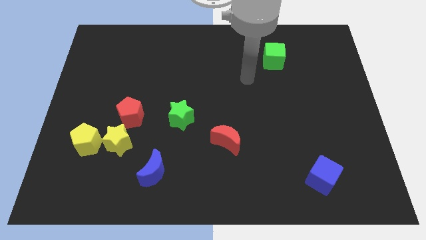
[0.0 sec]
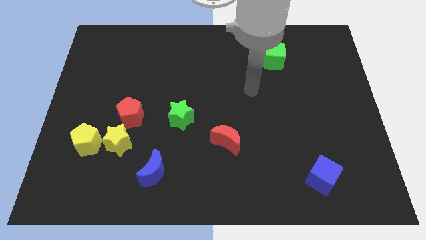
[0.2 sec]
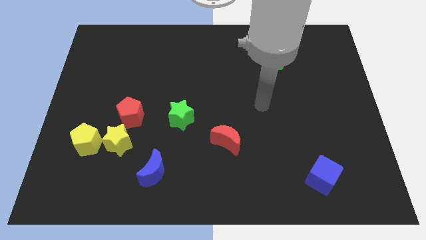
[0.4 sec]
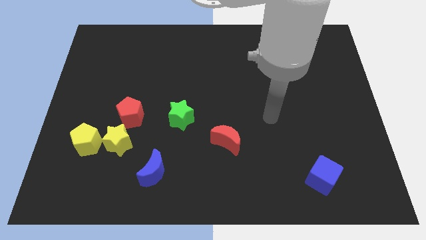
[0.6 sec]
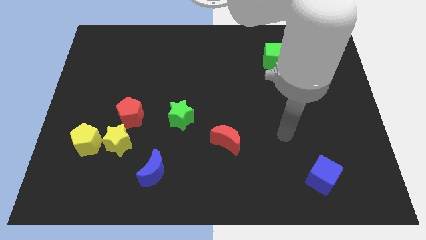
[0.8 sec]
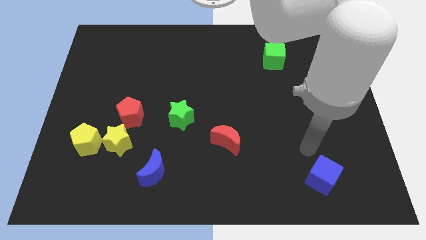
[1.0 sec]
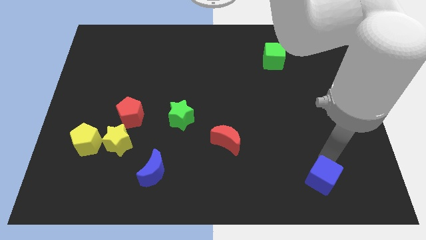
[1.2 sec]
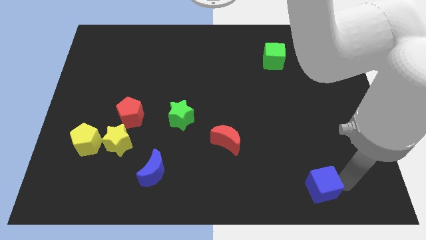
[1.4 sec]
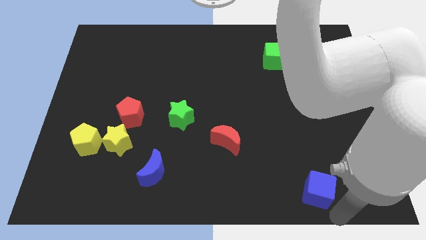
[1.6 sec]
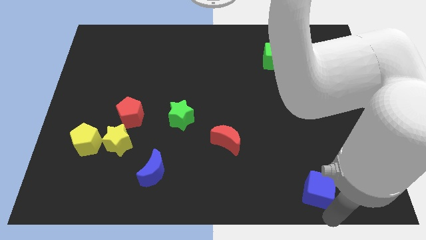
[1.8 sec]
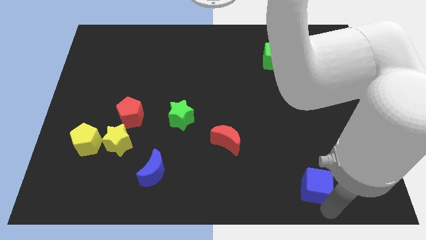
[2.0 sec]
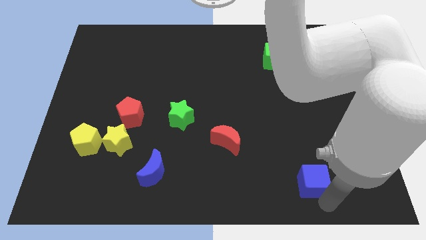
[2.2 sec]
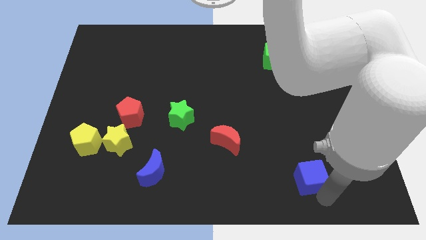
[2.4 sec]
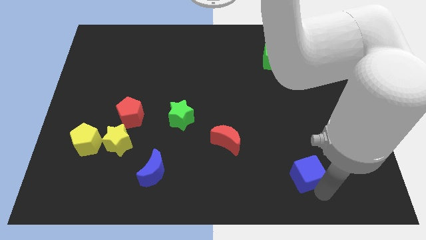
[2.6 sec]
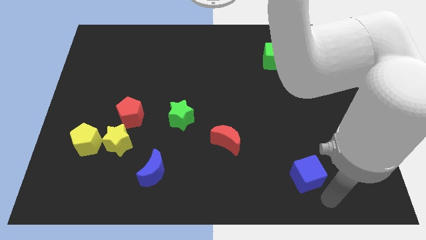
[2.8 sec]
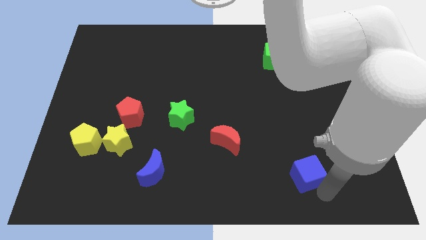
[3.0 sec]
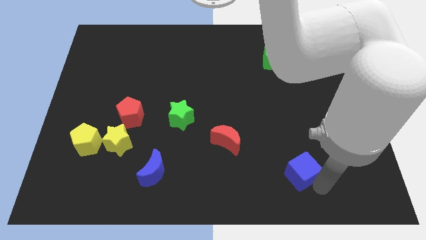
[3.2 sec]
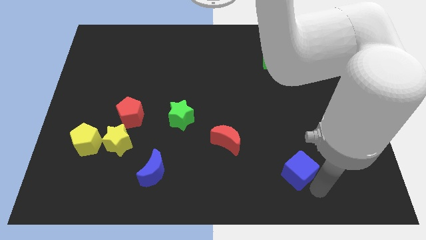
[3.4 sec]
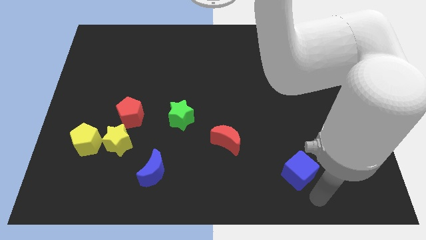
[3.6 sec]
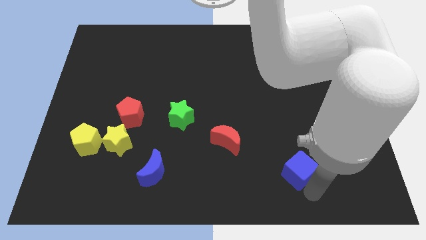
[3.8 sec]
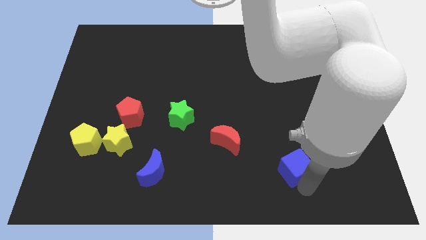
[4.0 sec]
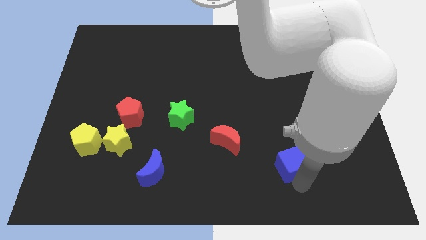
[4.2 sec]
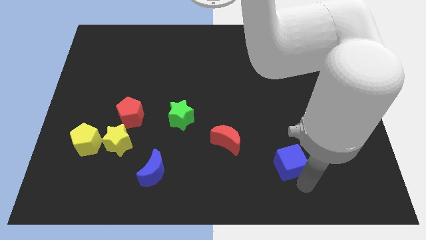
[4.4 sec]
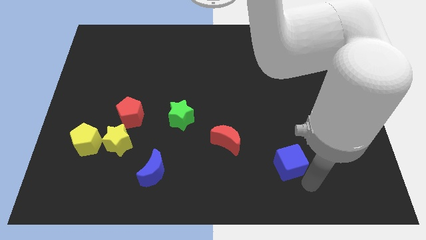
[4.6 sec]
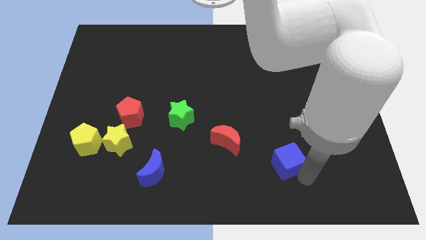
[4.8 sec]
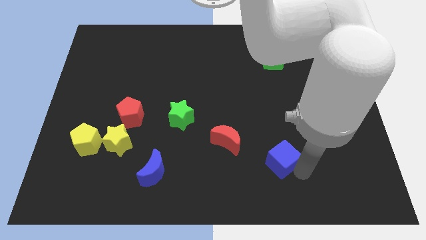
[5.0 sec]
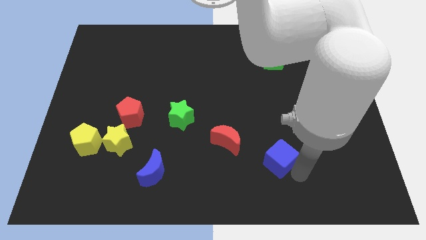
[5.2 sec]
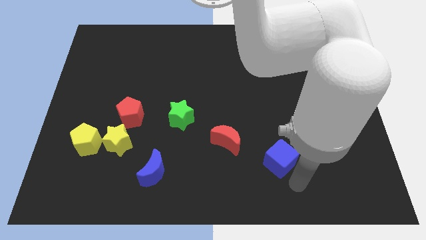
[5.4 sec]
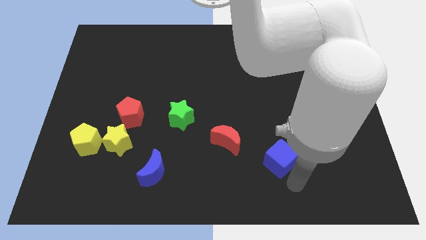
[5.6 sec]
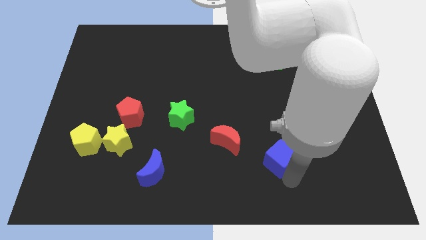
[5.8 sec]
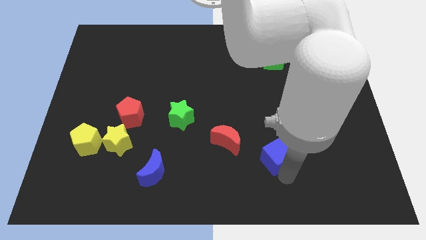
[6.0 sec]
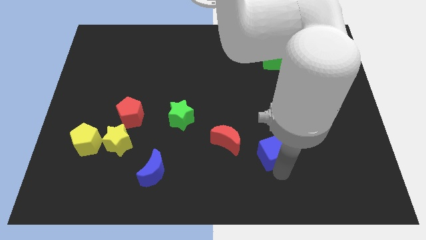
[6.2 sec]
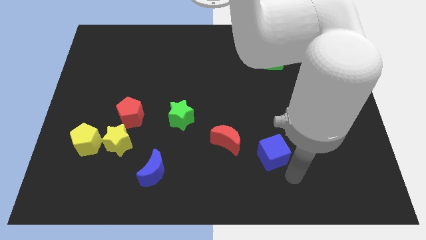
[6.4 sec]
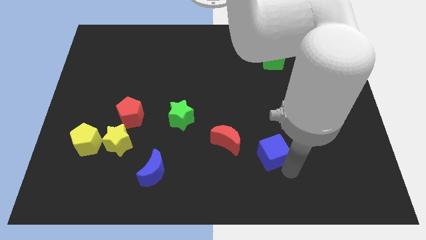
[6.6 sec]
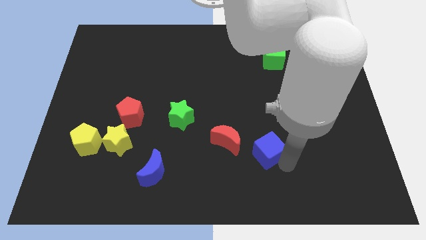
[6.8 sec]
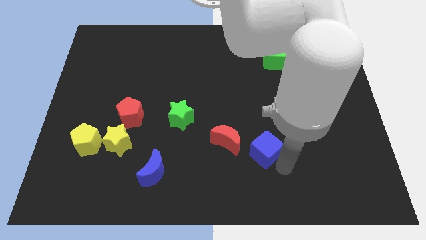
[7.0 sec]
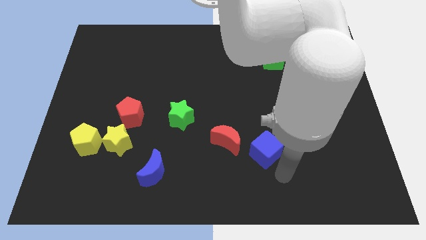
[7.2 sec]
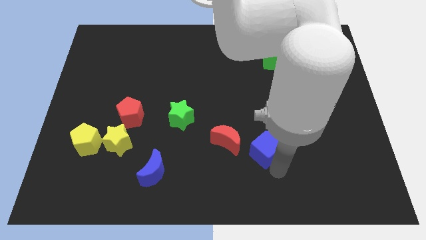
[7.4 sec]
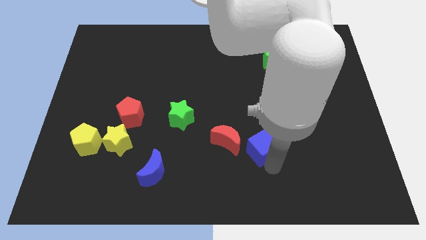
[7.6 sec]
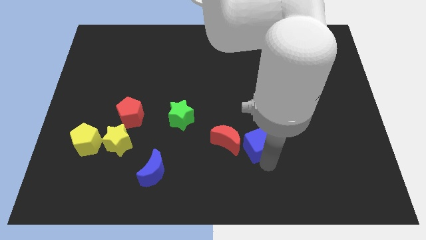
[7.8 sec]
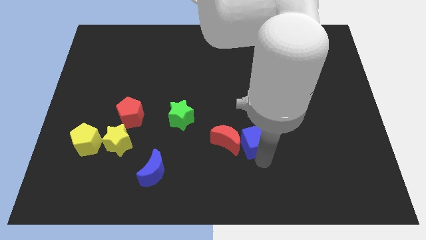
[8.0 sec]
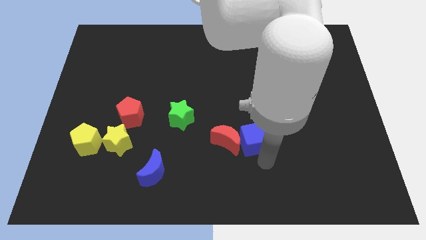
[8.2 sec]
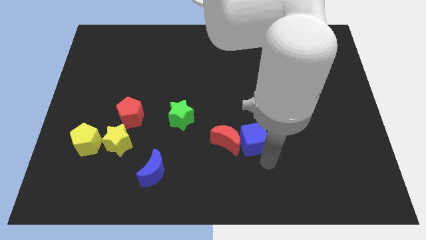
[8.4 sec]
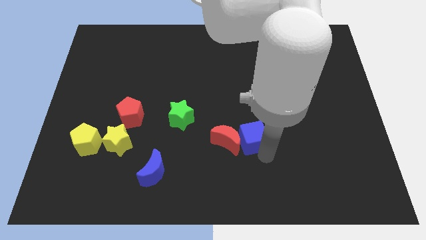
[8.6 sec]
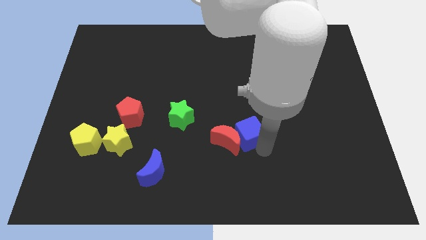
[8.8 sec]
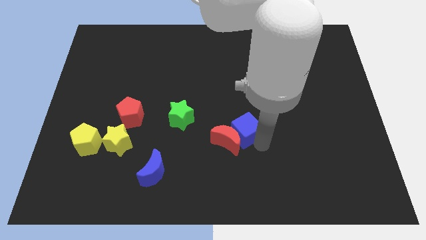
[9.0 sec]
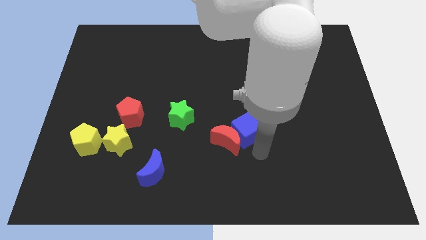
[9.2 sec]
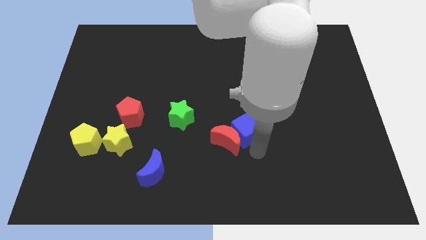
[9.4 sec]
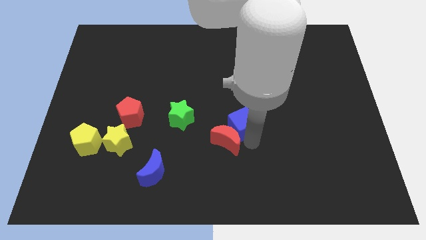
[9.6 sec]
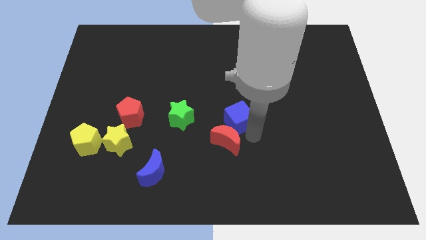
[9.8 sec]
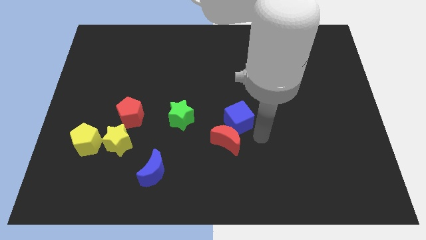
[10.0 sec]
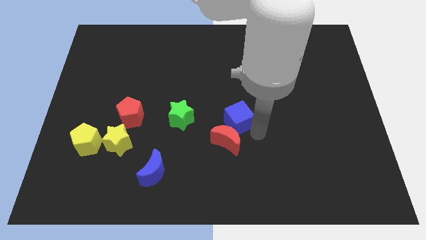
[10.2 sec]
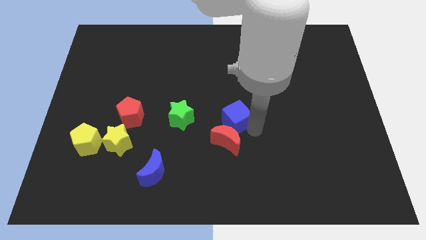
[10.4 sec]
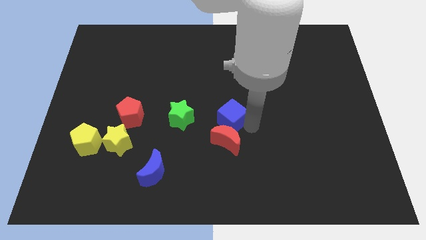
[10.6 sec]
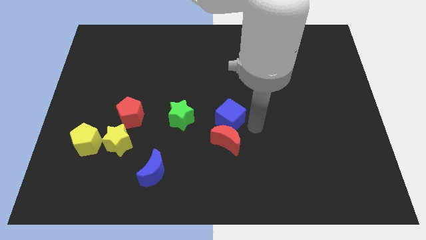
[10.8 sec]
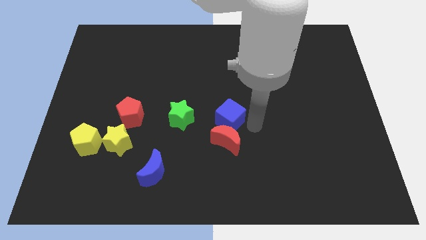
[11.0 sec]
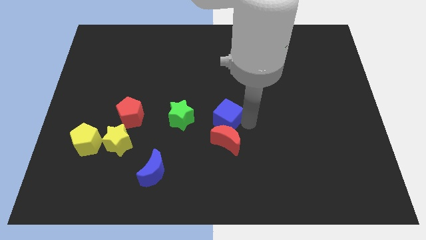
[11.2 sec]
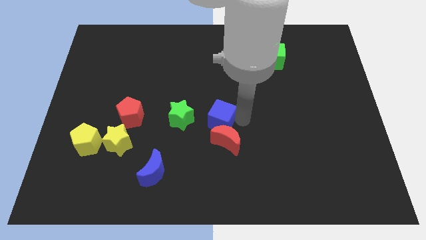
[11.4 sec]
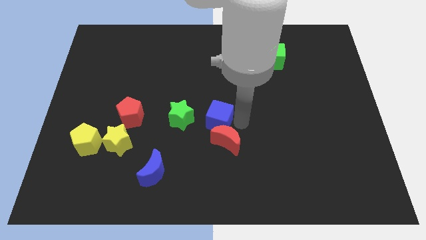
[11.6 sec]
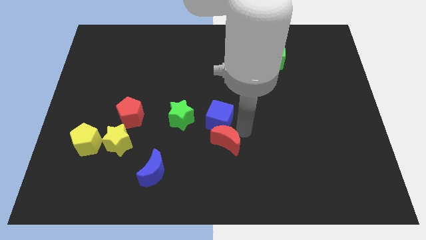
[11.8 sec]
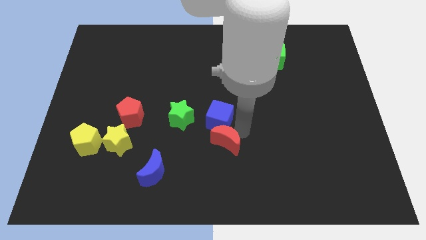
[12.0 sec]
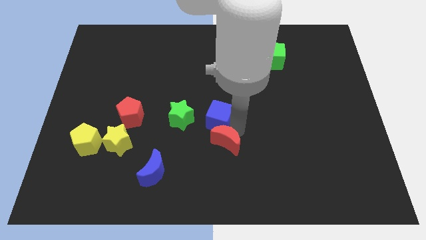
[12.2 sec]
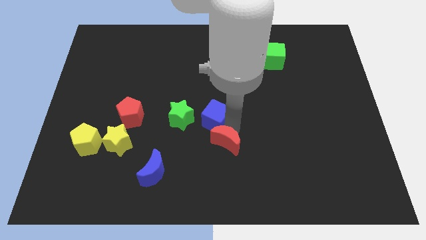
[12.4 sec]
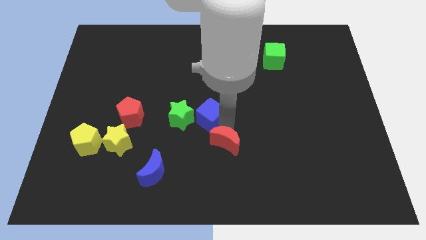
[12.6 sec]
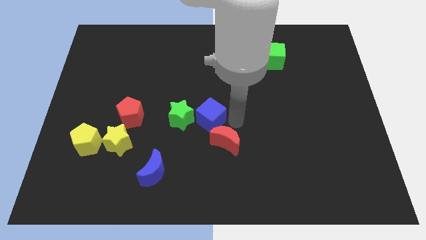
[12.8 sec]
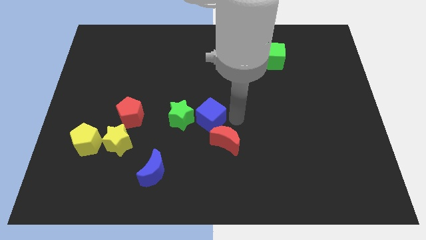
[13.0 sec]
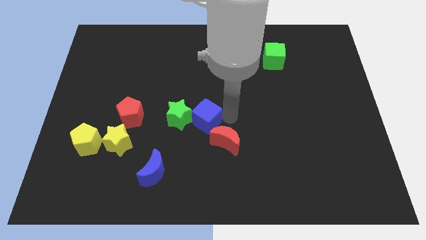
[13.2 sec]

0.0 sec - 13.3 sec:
slide the blue cube towards the green star
